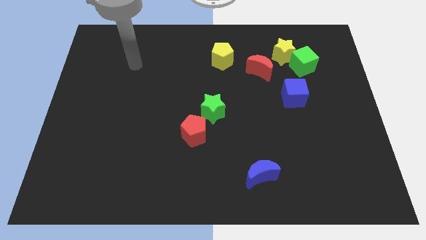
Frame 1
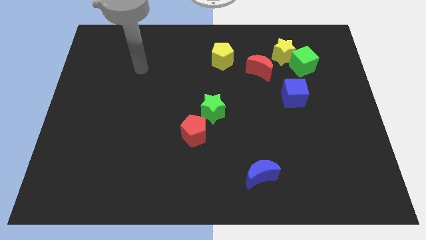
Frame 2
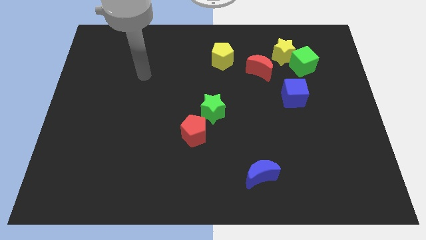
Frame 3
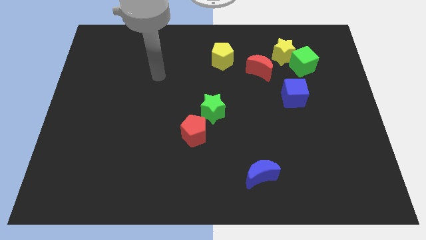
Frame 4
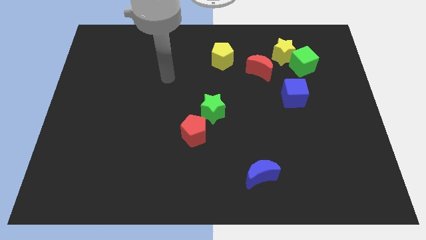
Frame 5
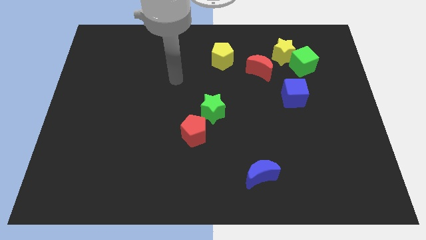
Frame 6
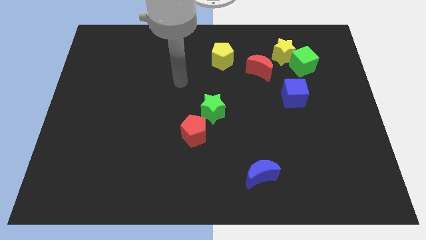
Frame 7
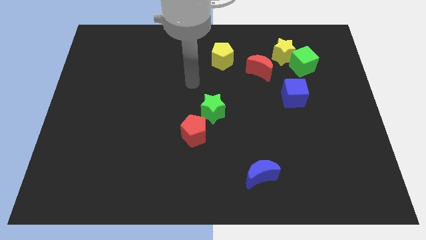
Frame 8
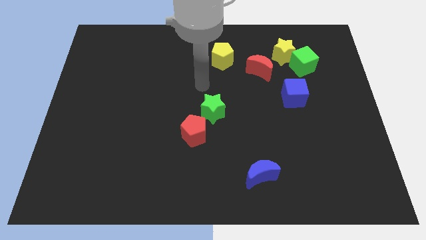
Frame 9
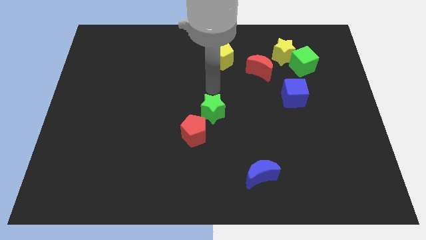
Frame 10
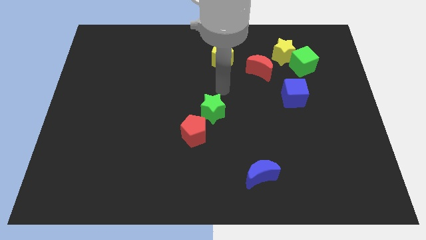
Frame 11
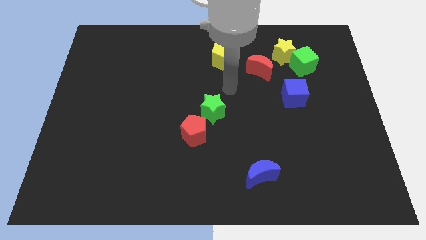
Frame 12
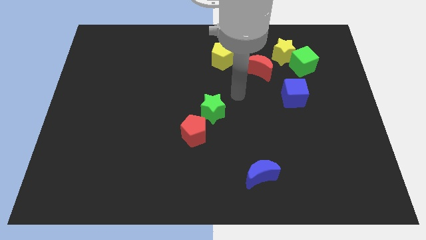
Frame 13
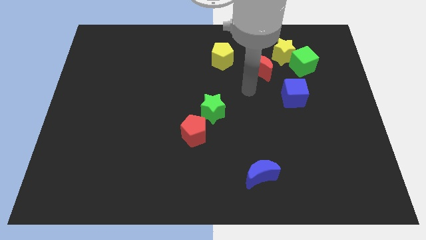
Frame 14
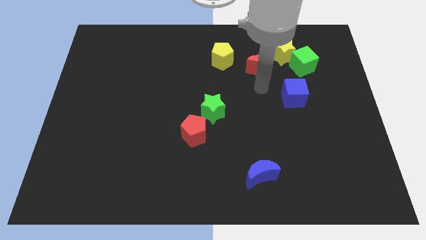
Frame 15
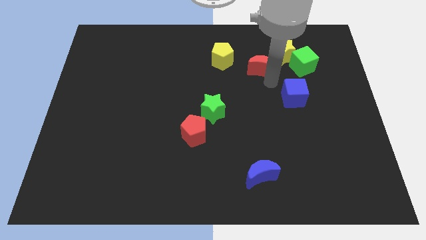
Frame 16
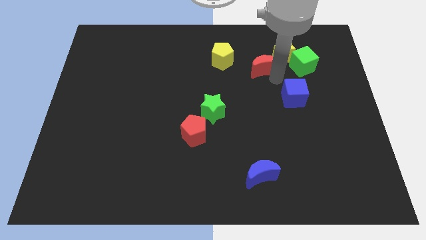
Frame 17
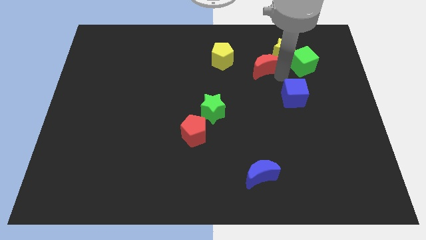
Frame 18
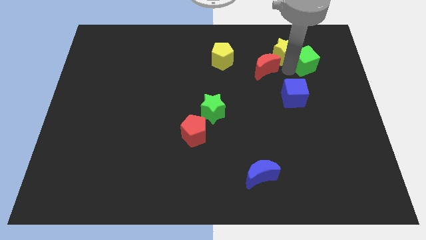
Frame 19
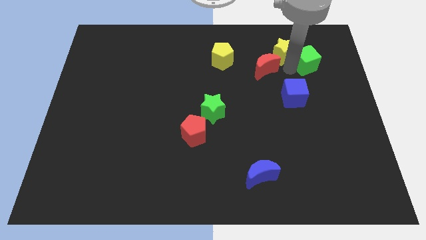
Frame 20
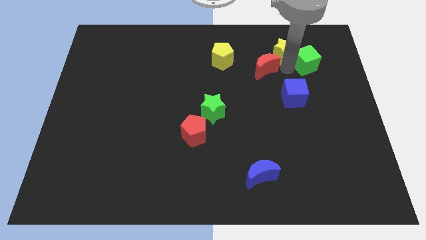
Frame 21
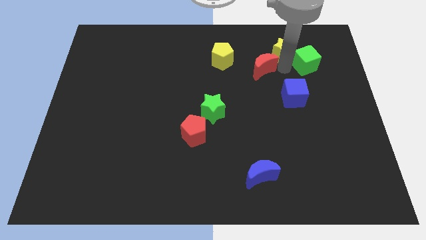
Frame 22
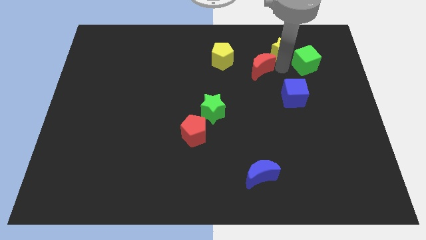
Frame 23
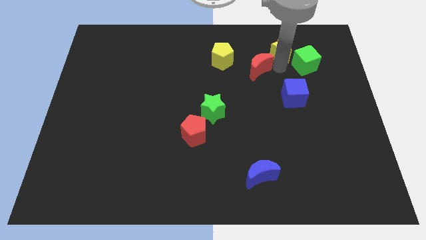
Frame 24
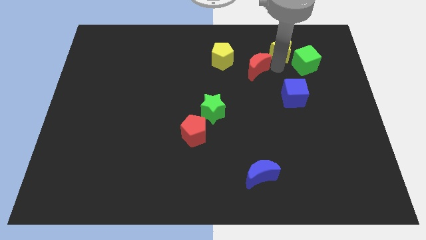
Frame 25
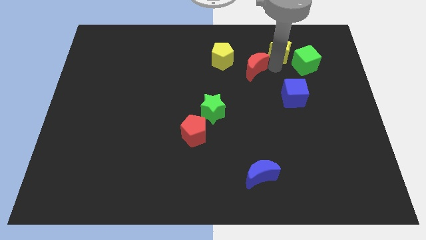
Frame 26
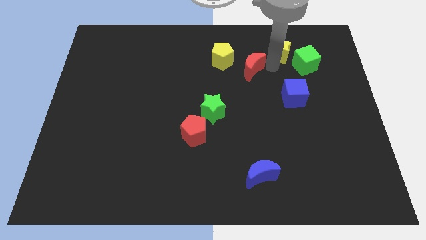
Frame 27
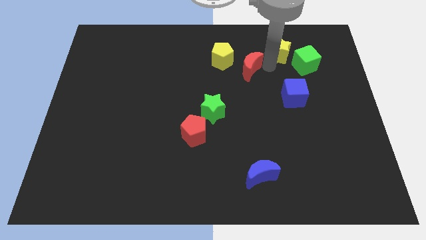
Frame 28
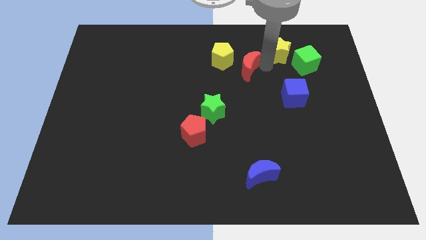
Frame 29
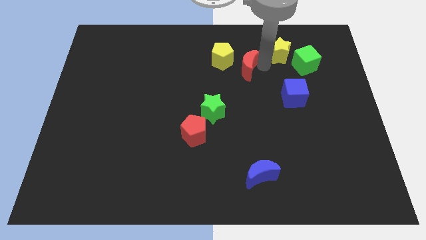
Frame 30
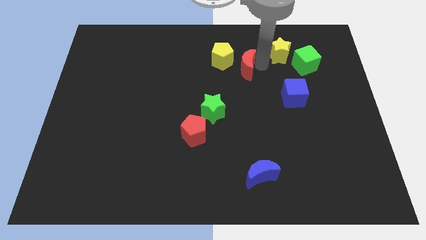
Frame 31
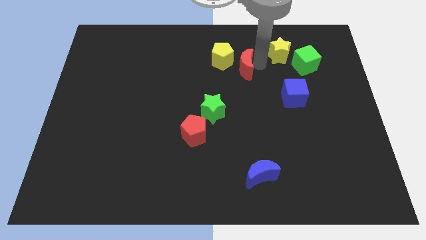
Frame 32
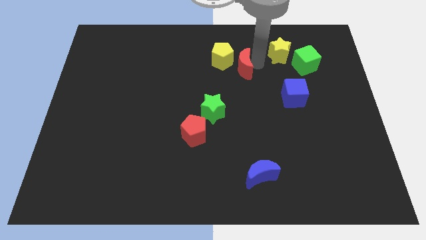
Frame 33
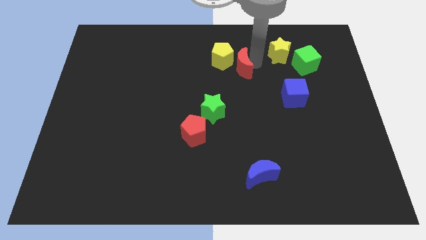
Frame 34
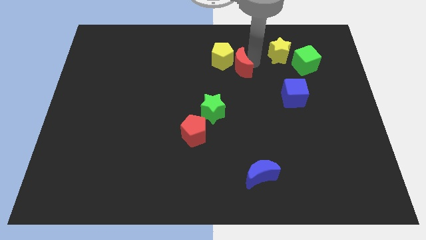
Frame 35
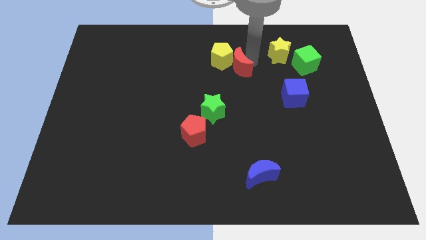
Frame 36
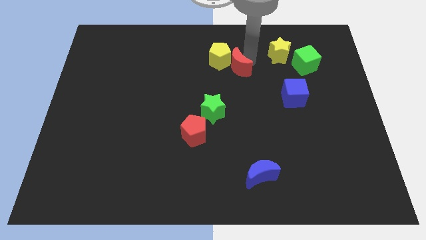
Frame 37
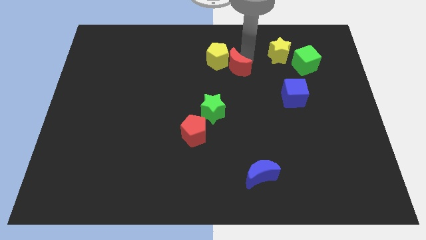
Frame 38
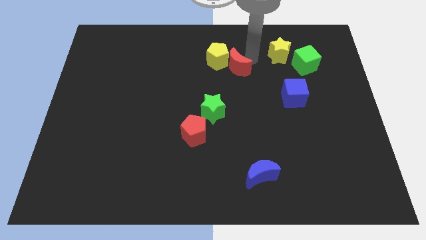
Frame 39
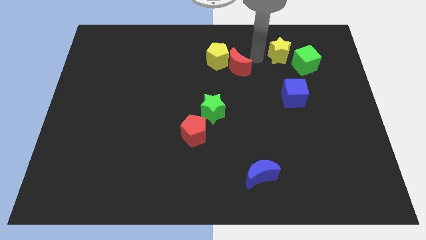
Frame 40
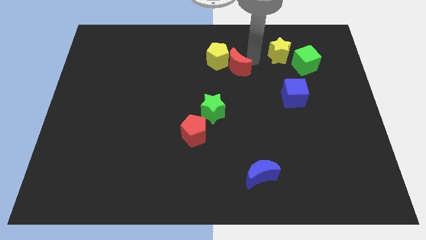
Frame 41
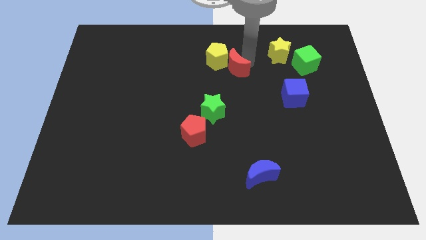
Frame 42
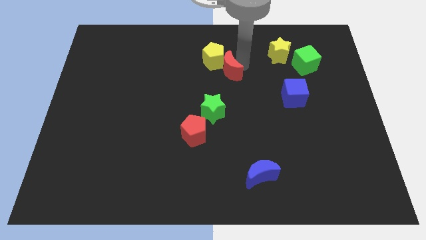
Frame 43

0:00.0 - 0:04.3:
slide the red moon to the left a little

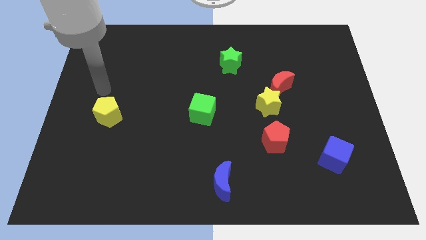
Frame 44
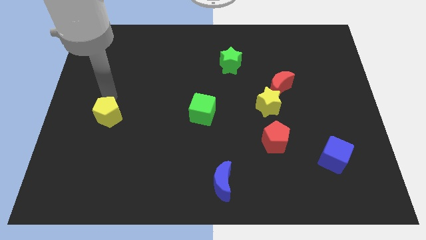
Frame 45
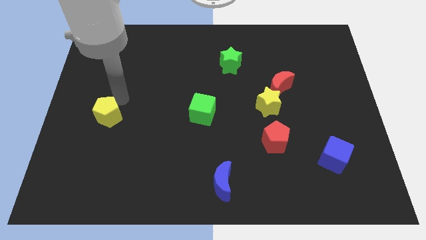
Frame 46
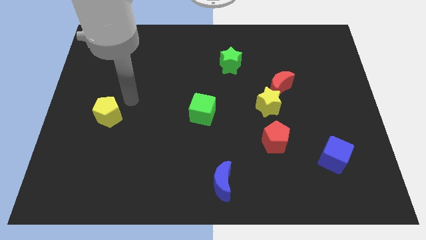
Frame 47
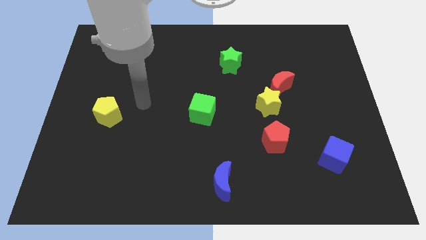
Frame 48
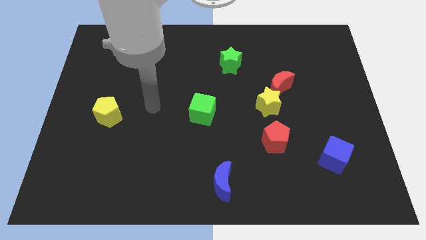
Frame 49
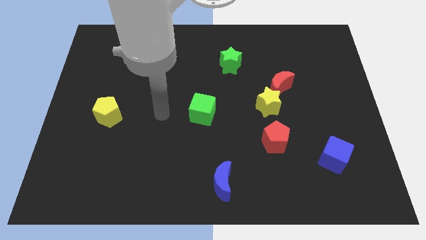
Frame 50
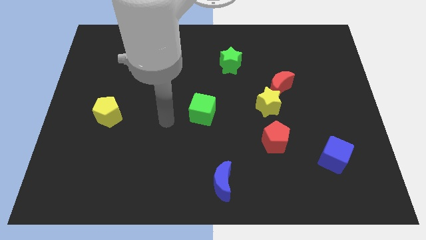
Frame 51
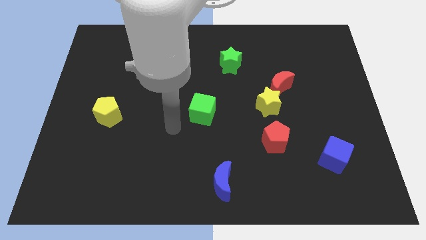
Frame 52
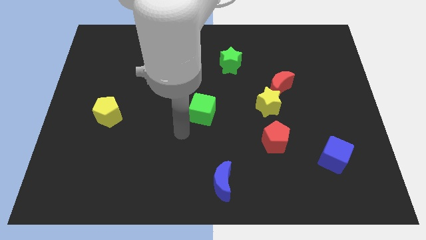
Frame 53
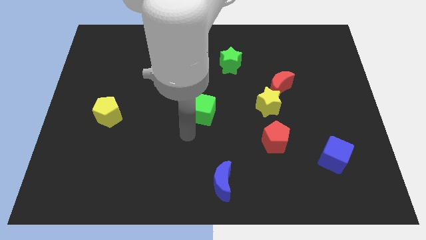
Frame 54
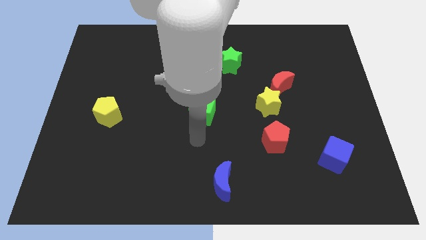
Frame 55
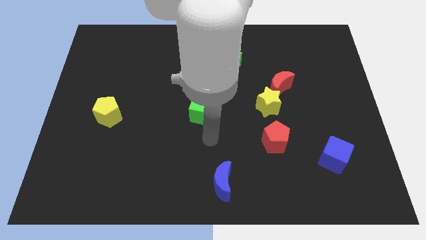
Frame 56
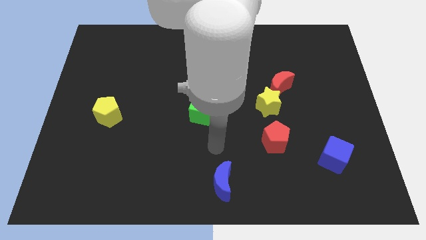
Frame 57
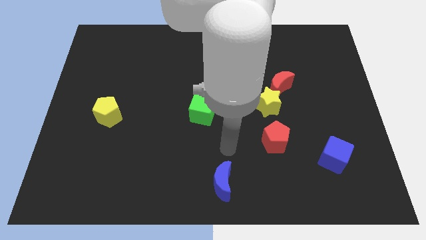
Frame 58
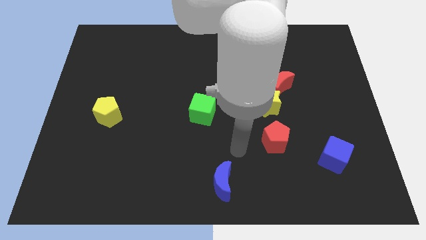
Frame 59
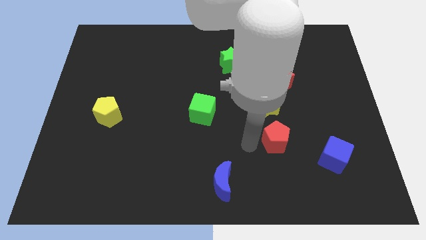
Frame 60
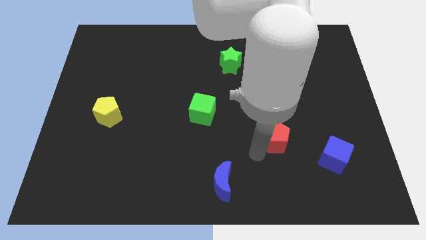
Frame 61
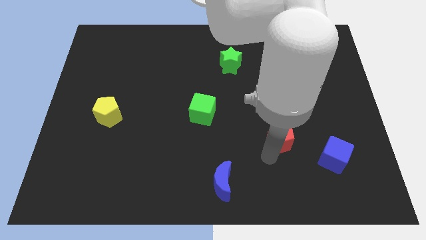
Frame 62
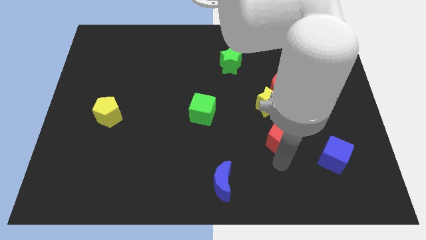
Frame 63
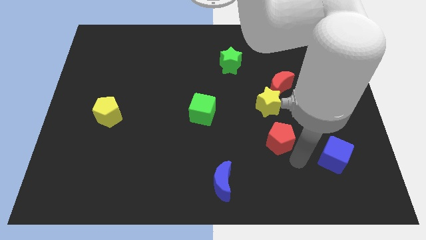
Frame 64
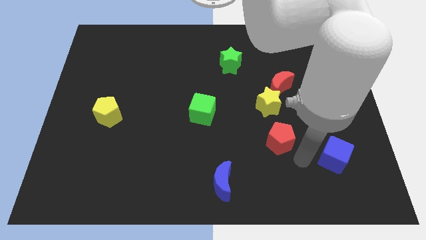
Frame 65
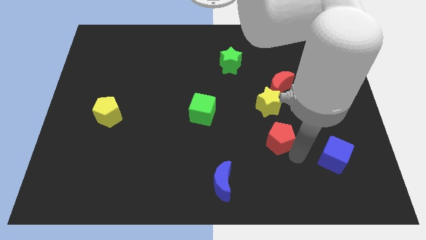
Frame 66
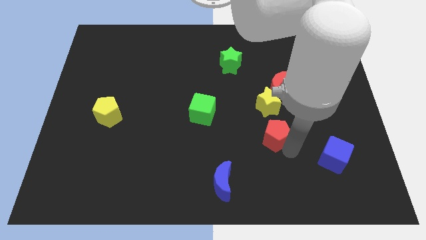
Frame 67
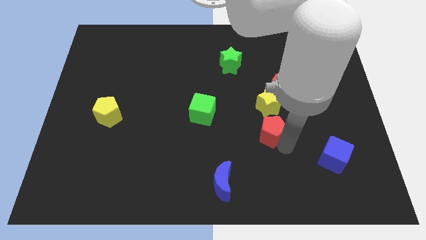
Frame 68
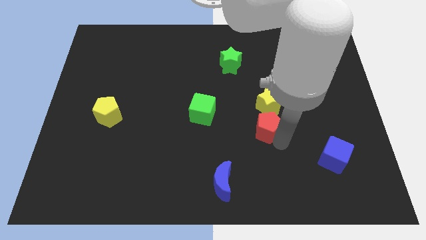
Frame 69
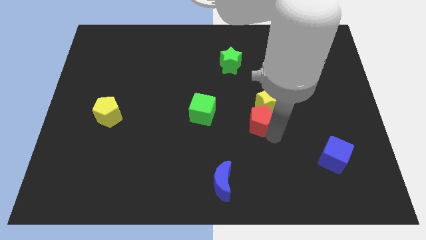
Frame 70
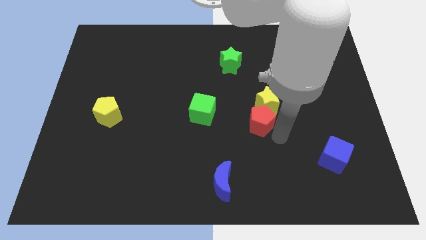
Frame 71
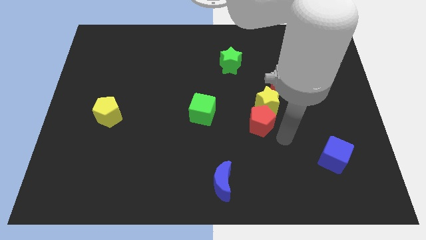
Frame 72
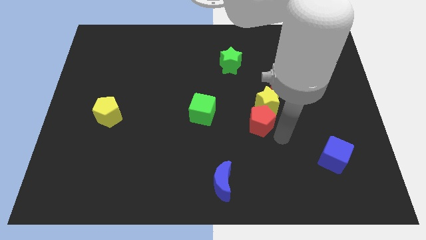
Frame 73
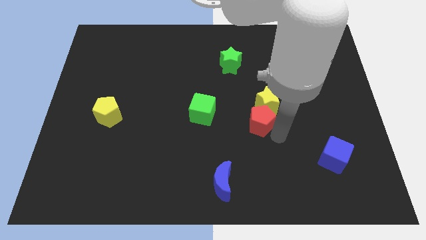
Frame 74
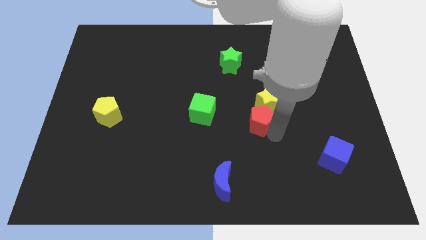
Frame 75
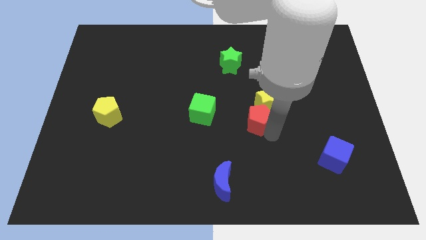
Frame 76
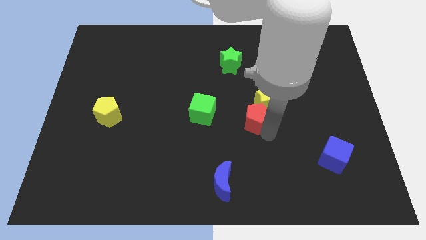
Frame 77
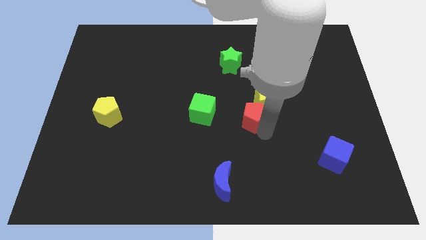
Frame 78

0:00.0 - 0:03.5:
slightly push the red pentagon diagonally upwards and left

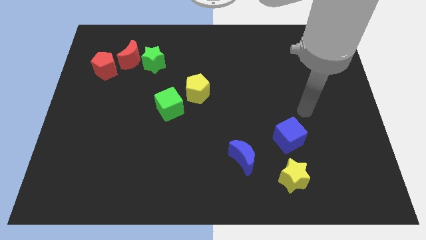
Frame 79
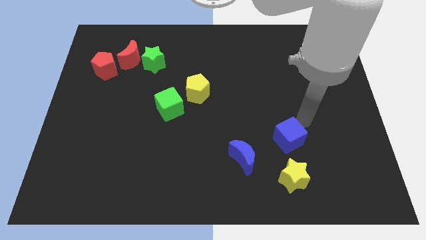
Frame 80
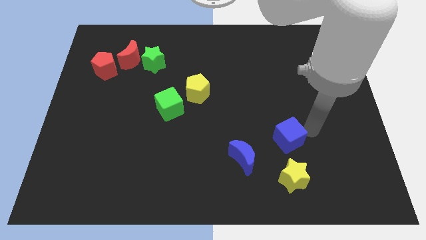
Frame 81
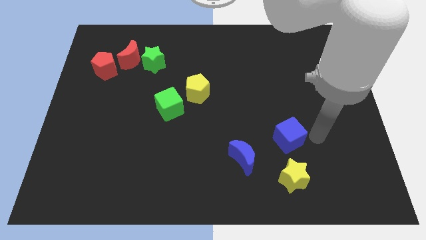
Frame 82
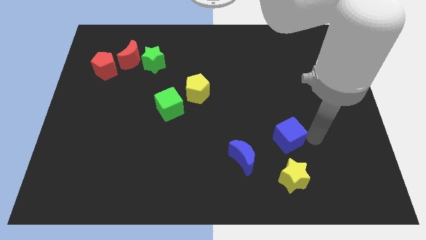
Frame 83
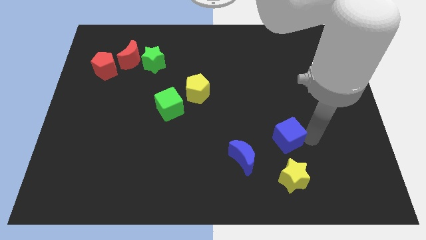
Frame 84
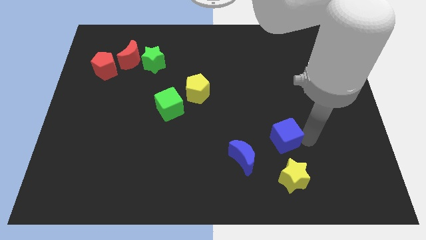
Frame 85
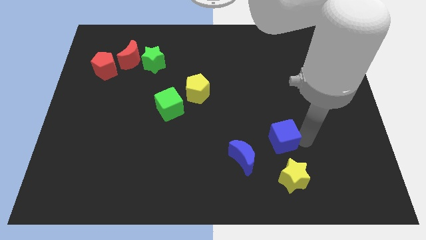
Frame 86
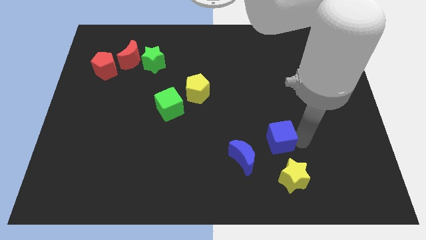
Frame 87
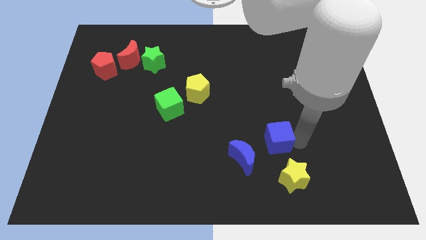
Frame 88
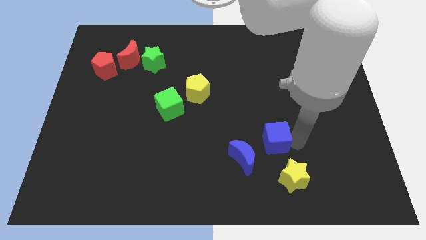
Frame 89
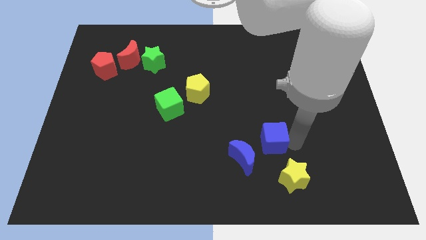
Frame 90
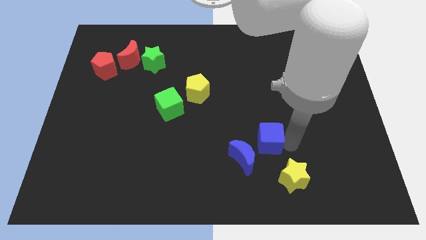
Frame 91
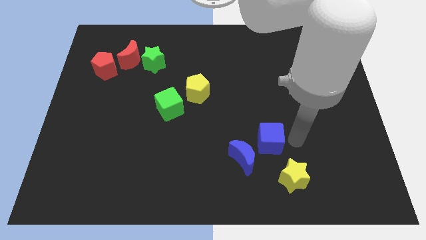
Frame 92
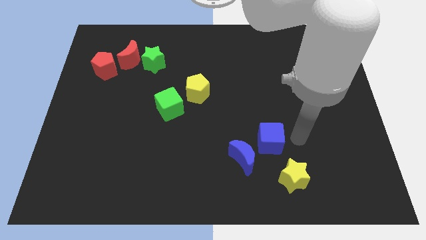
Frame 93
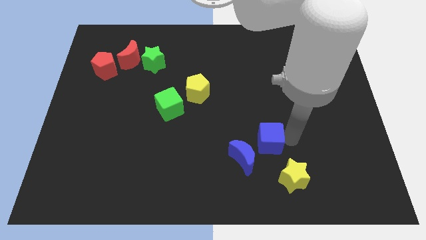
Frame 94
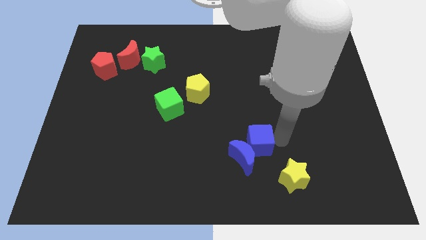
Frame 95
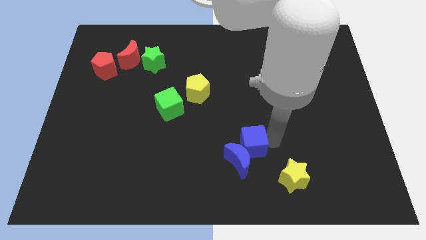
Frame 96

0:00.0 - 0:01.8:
move the blue cube left somewhat
